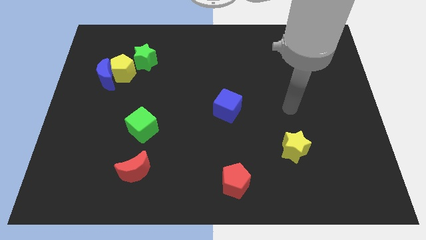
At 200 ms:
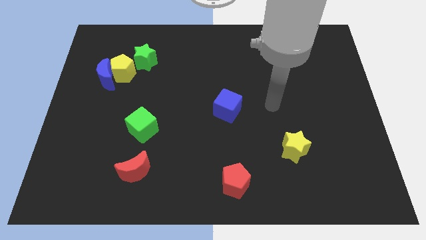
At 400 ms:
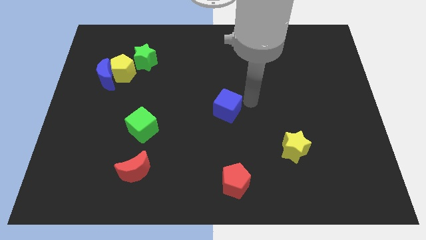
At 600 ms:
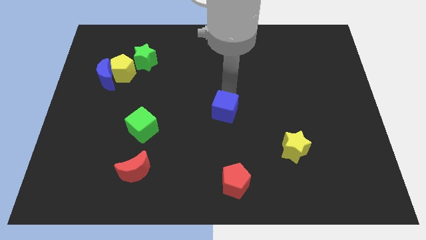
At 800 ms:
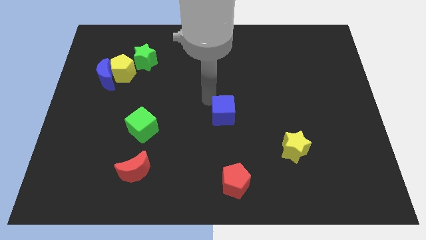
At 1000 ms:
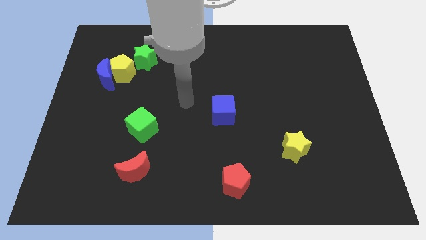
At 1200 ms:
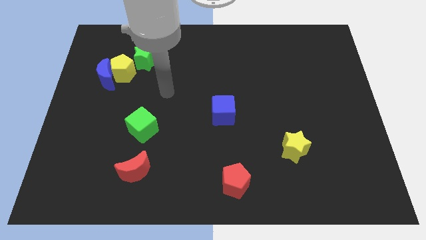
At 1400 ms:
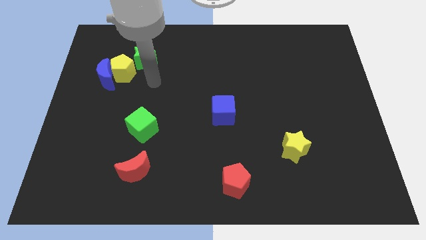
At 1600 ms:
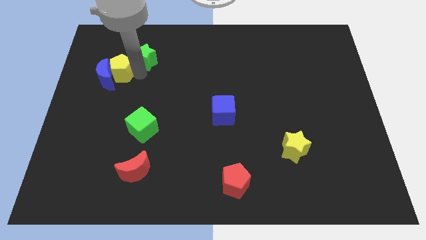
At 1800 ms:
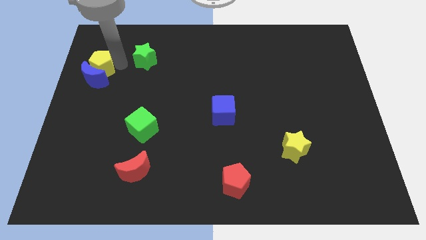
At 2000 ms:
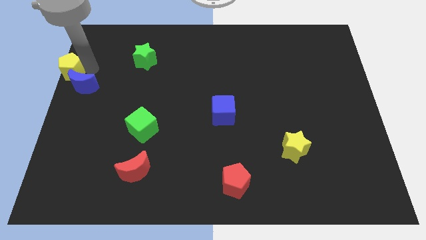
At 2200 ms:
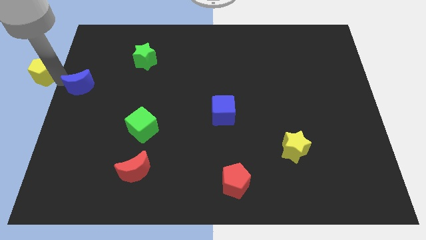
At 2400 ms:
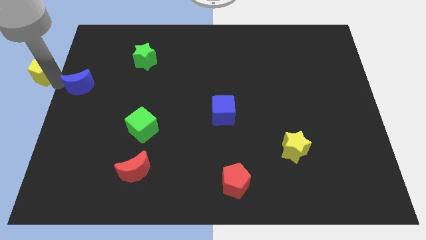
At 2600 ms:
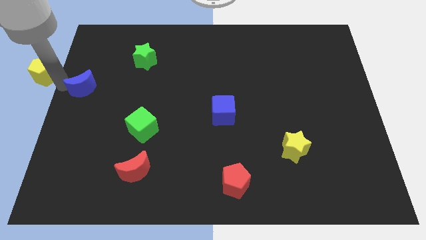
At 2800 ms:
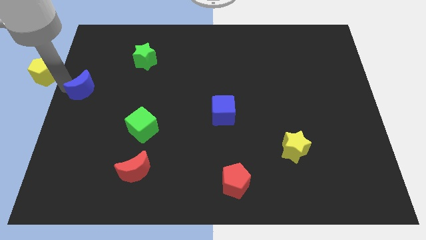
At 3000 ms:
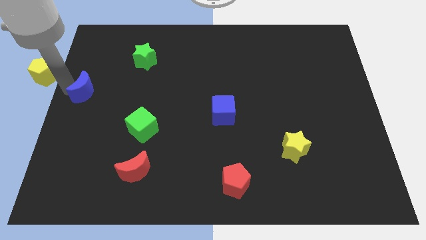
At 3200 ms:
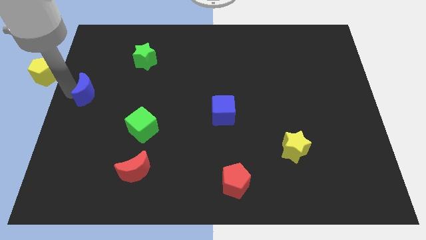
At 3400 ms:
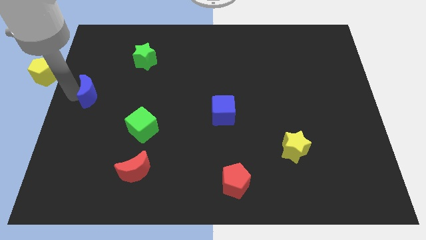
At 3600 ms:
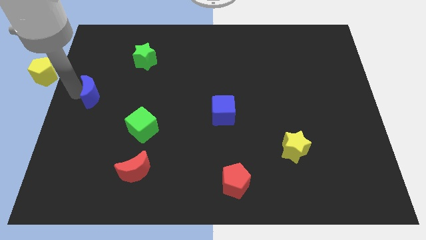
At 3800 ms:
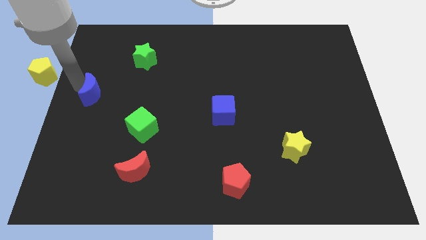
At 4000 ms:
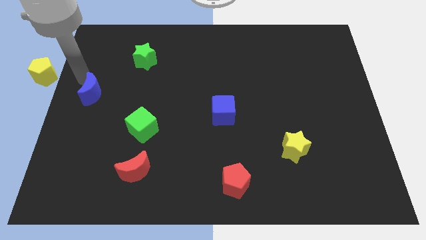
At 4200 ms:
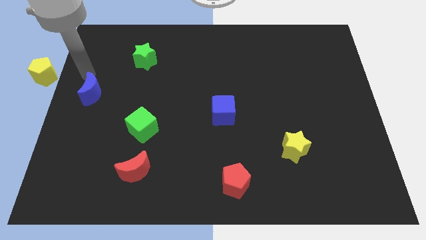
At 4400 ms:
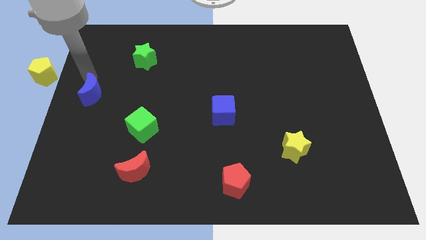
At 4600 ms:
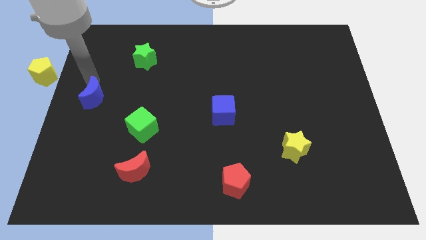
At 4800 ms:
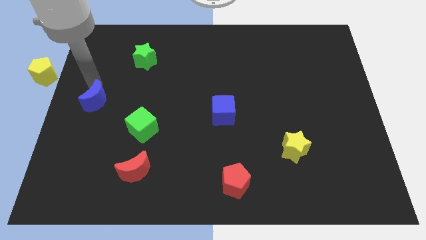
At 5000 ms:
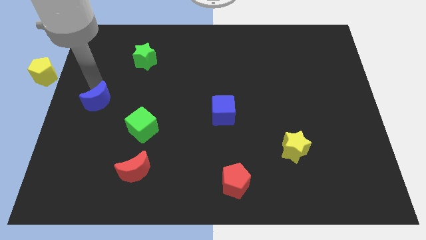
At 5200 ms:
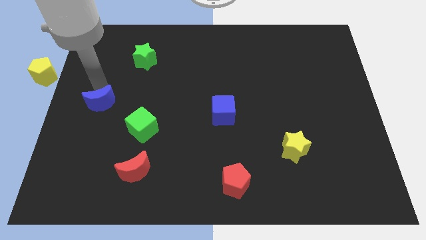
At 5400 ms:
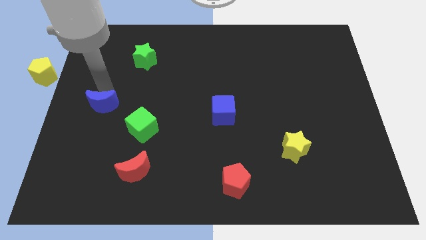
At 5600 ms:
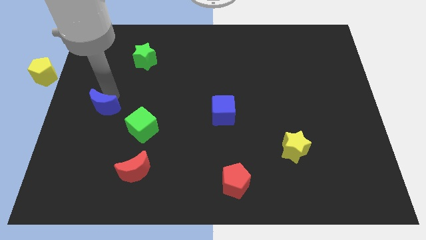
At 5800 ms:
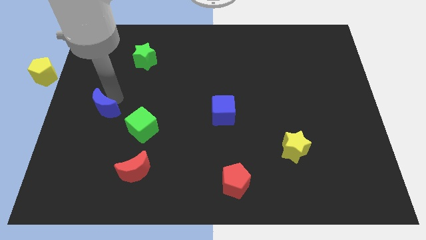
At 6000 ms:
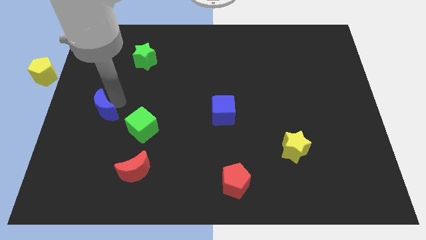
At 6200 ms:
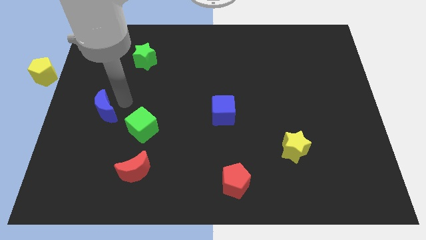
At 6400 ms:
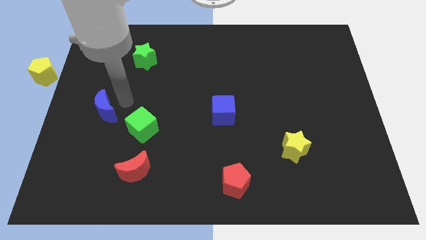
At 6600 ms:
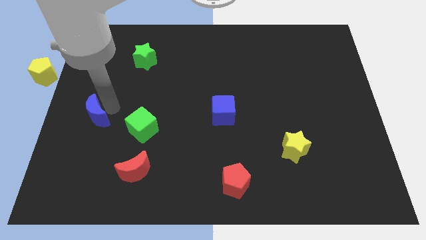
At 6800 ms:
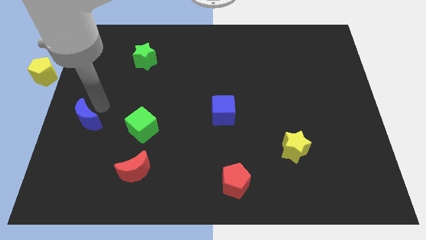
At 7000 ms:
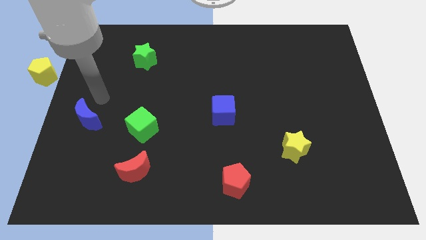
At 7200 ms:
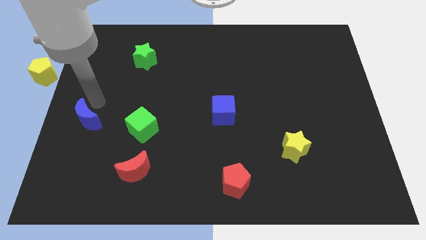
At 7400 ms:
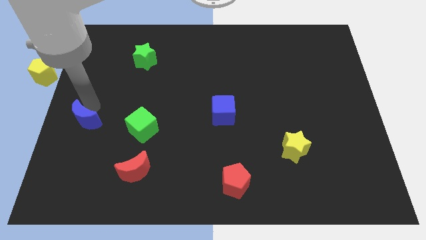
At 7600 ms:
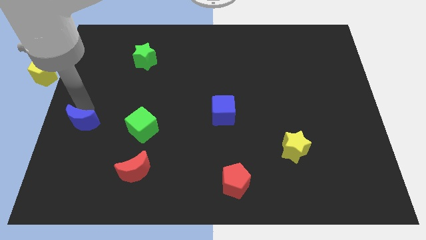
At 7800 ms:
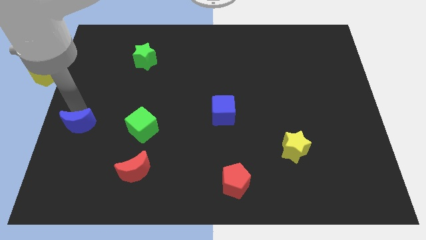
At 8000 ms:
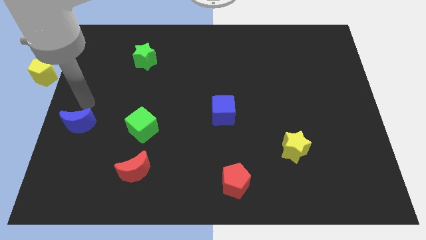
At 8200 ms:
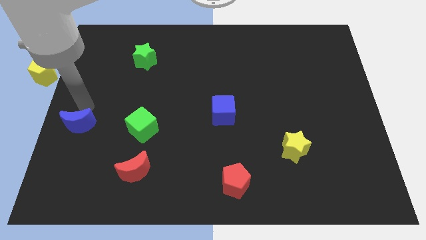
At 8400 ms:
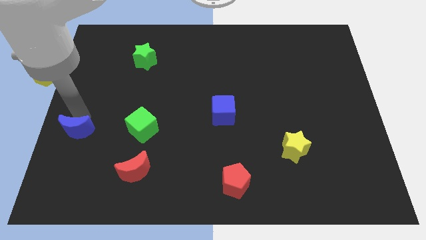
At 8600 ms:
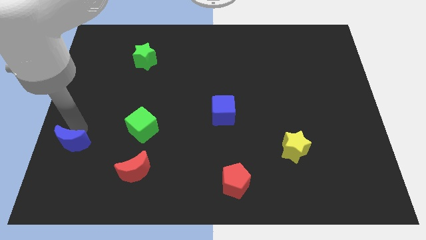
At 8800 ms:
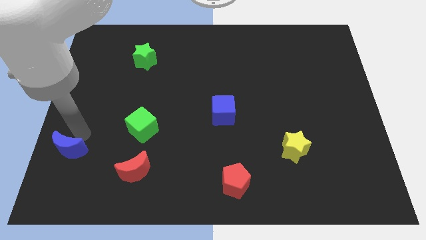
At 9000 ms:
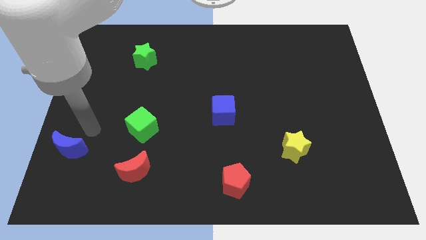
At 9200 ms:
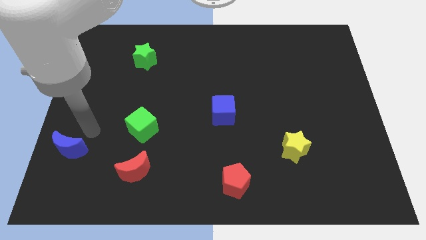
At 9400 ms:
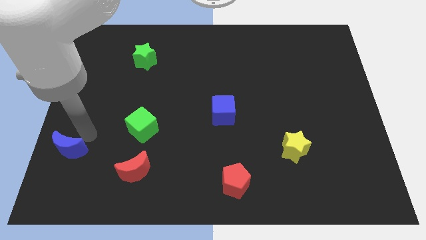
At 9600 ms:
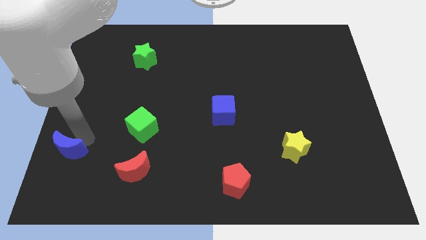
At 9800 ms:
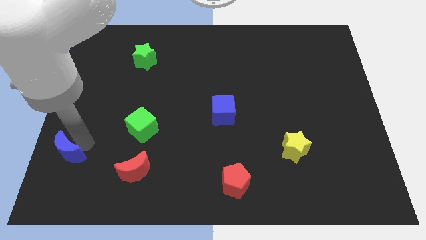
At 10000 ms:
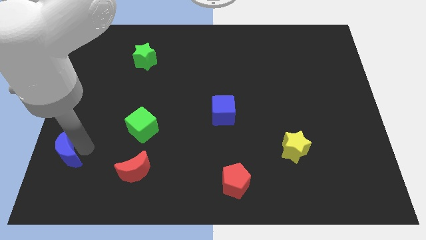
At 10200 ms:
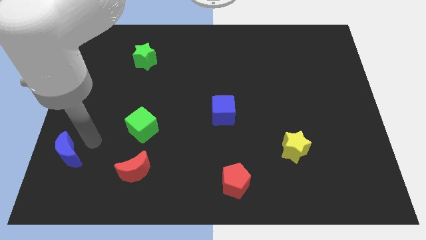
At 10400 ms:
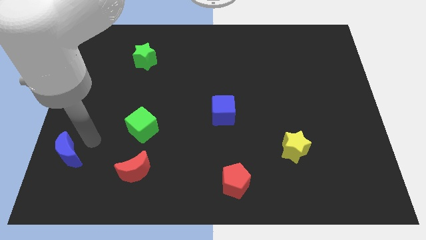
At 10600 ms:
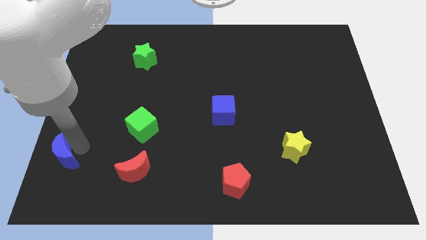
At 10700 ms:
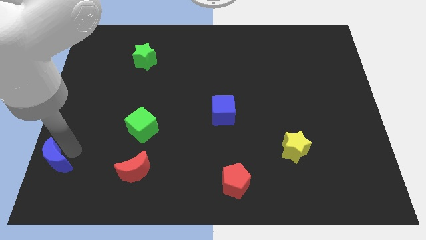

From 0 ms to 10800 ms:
put the blue moon to the bottom left
